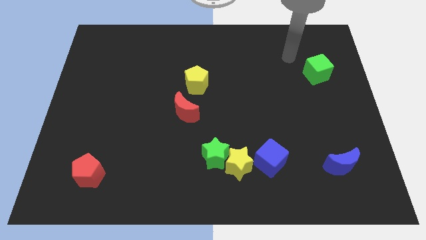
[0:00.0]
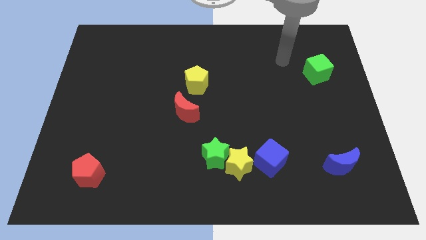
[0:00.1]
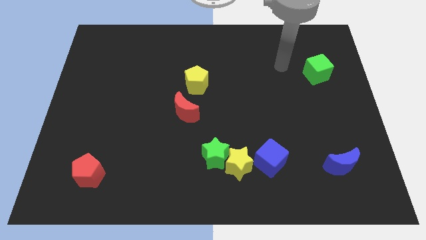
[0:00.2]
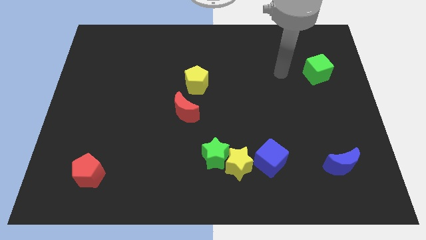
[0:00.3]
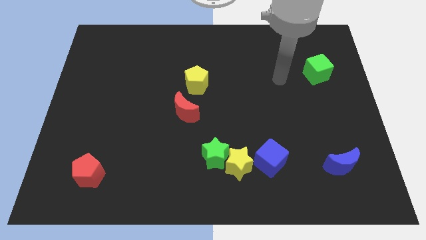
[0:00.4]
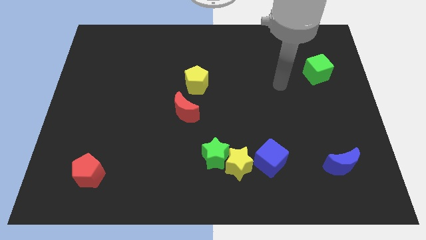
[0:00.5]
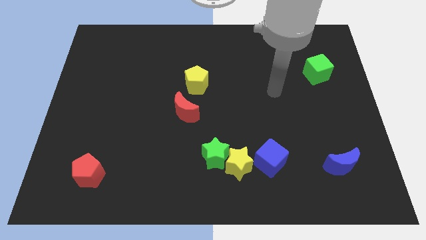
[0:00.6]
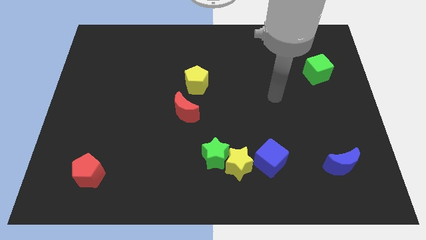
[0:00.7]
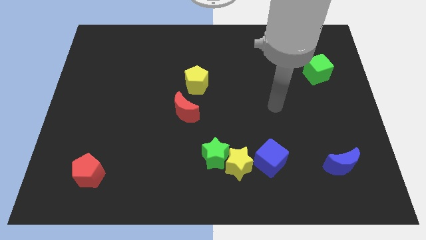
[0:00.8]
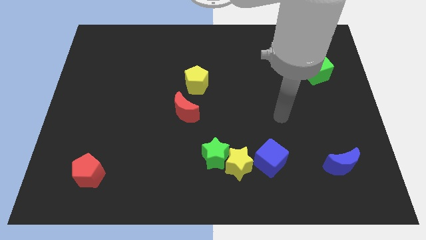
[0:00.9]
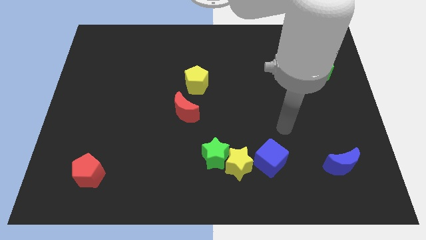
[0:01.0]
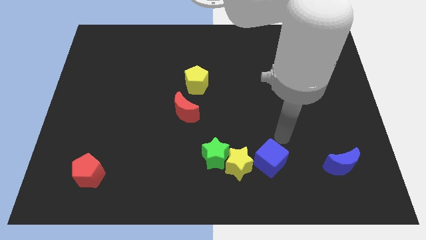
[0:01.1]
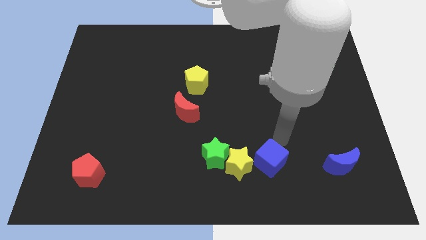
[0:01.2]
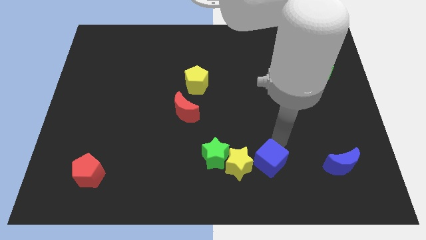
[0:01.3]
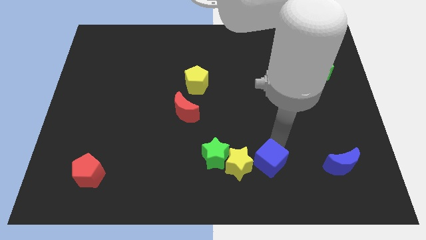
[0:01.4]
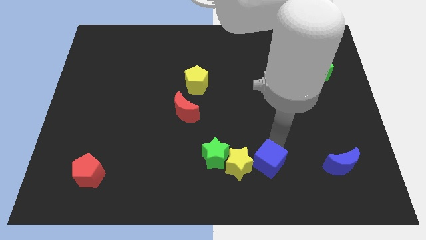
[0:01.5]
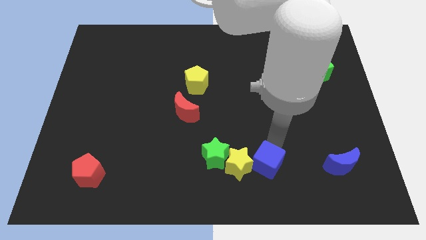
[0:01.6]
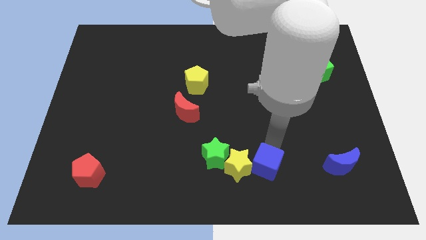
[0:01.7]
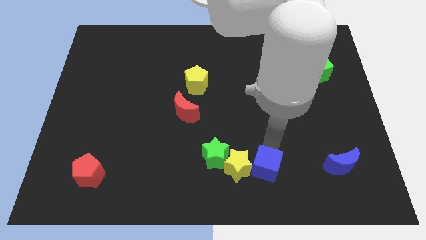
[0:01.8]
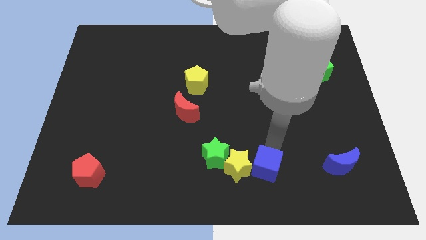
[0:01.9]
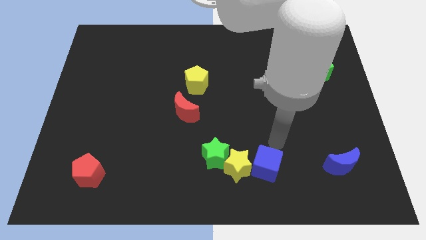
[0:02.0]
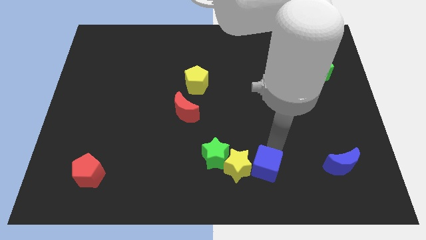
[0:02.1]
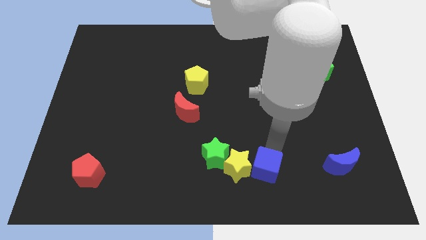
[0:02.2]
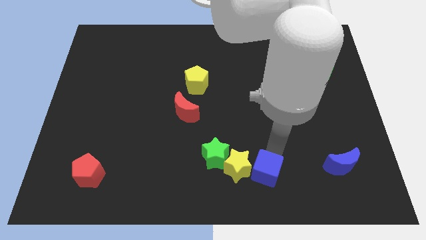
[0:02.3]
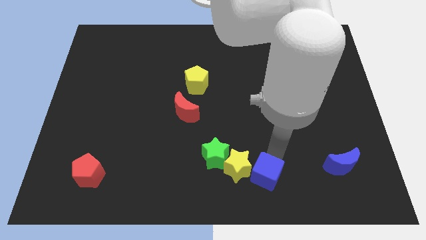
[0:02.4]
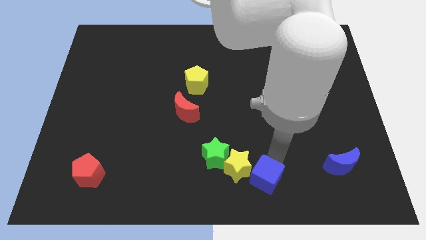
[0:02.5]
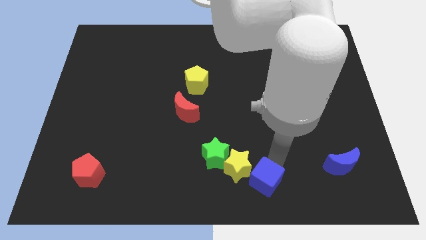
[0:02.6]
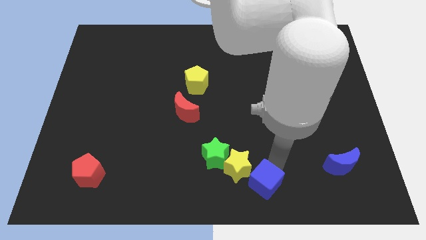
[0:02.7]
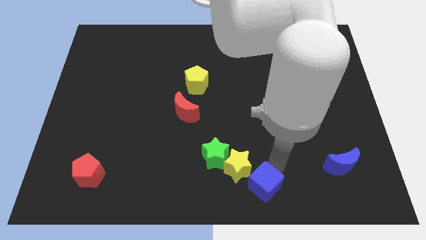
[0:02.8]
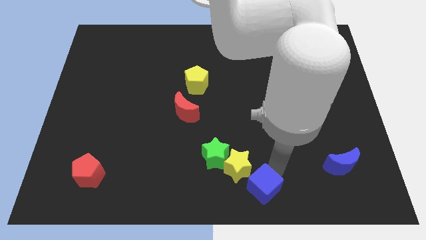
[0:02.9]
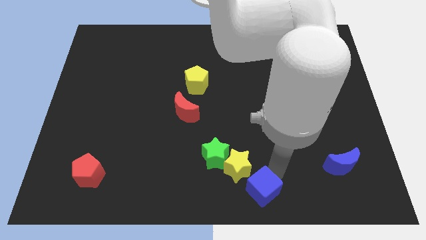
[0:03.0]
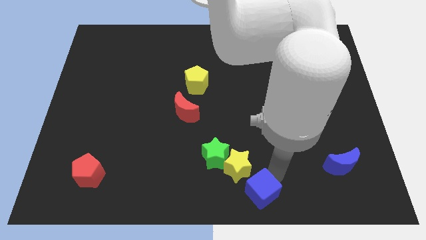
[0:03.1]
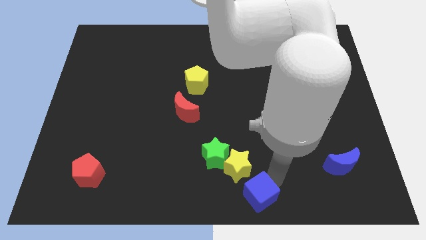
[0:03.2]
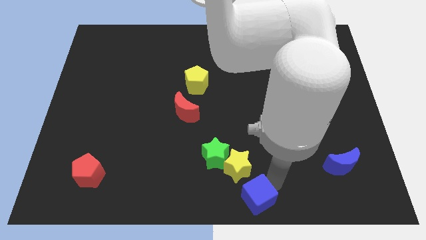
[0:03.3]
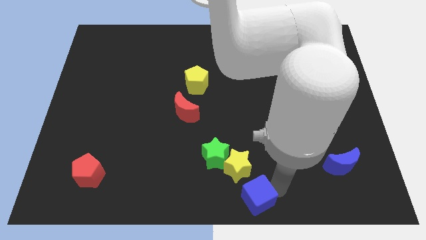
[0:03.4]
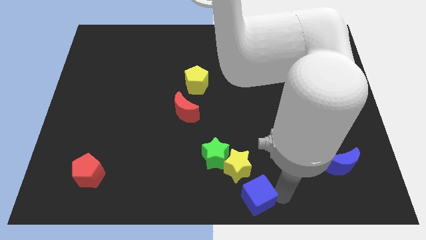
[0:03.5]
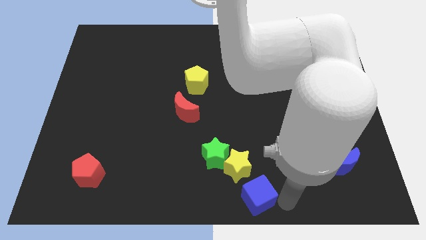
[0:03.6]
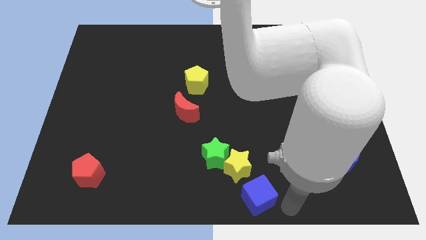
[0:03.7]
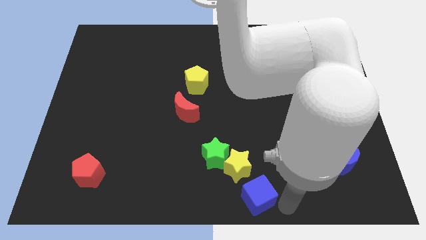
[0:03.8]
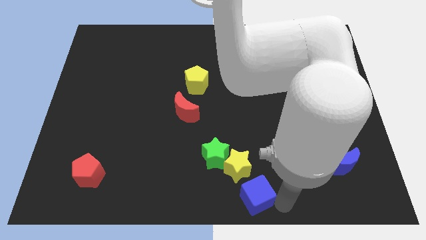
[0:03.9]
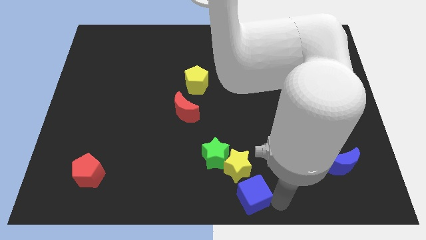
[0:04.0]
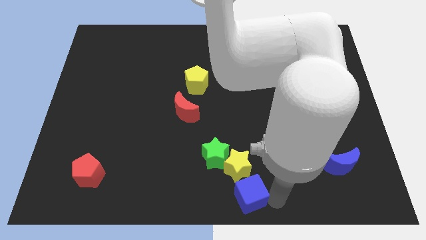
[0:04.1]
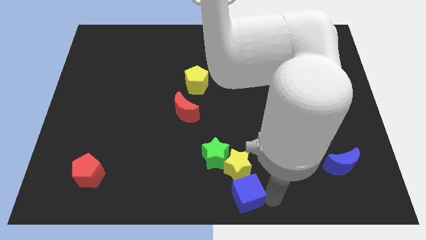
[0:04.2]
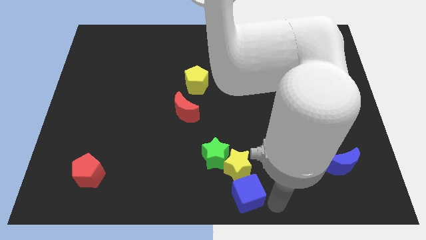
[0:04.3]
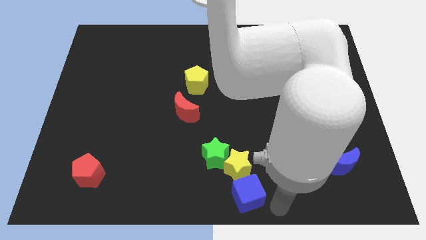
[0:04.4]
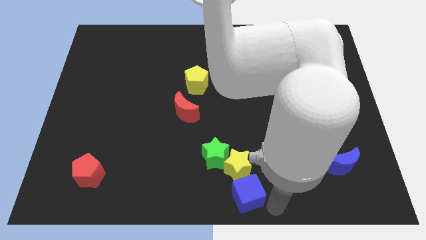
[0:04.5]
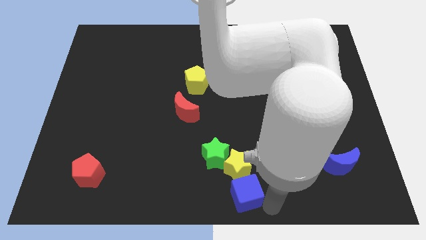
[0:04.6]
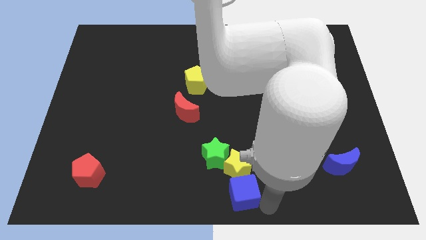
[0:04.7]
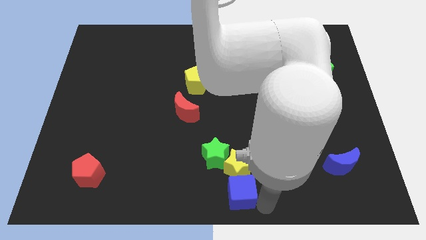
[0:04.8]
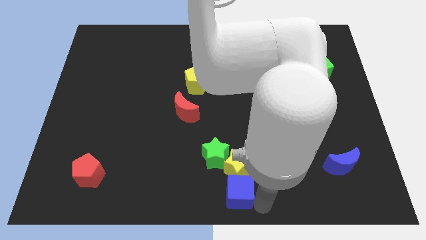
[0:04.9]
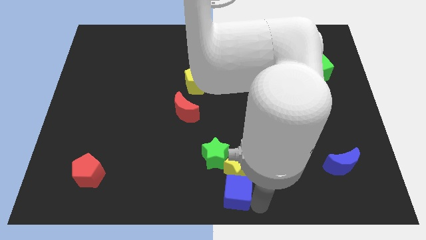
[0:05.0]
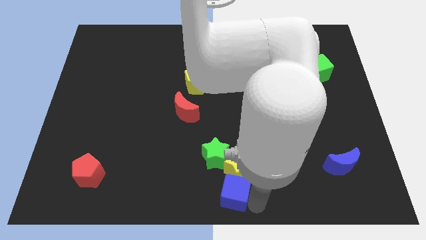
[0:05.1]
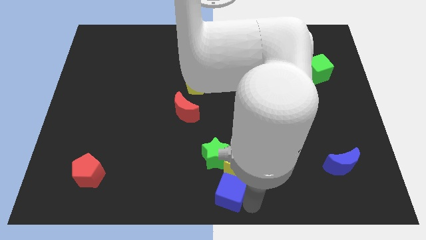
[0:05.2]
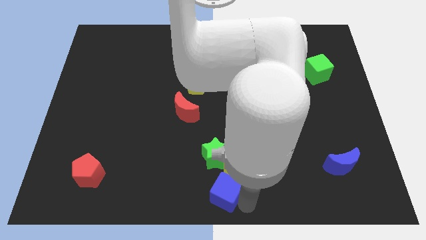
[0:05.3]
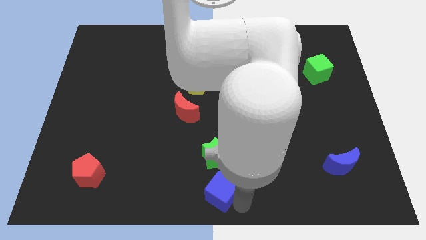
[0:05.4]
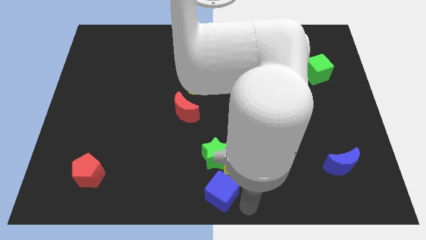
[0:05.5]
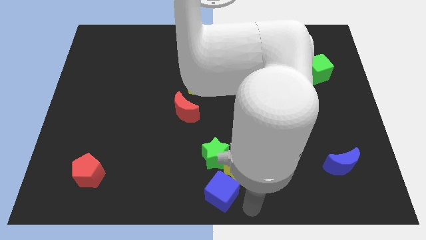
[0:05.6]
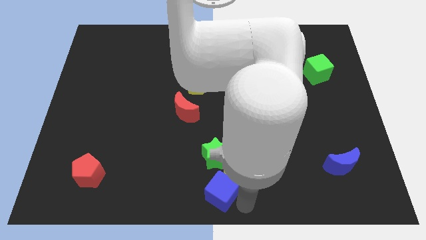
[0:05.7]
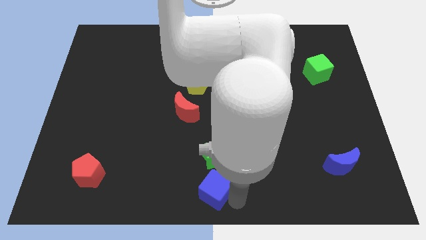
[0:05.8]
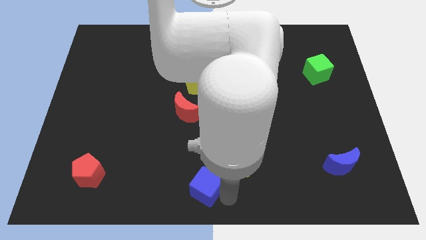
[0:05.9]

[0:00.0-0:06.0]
move the blue cube to the bottom left of the green star

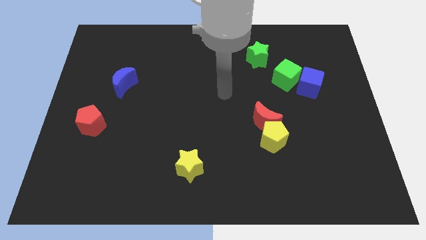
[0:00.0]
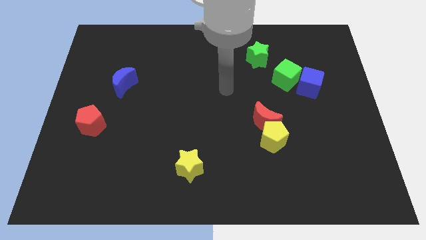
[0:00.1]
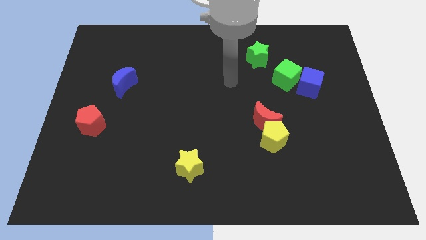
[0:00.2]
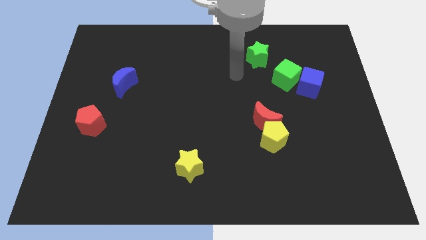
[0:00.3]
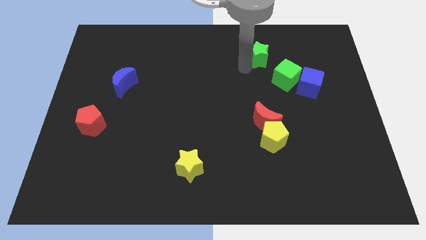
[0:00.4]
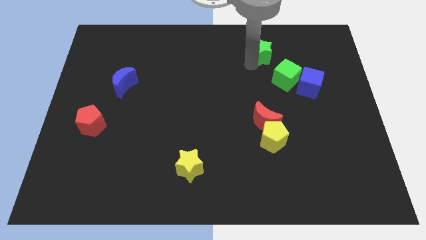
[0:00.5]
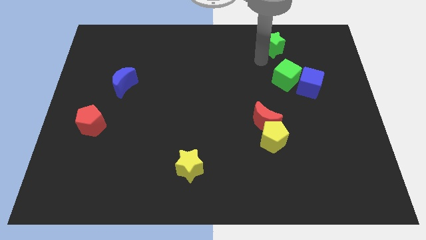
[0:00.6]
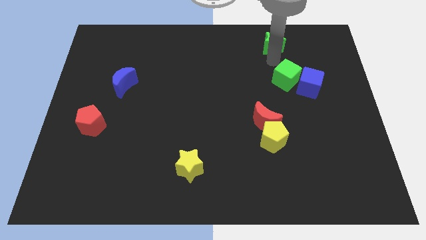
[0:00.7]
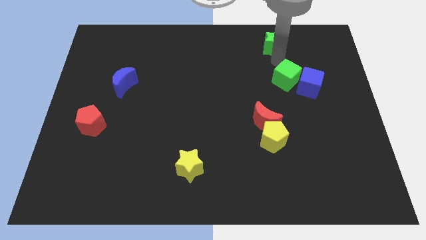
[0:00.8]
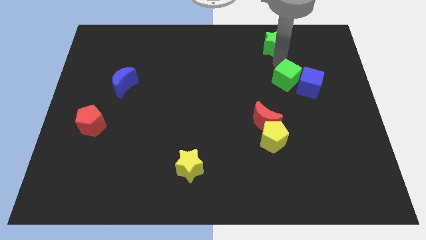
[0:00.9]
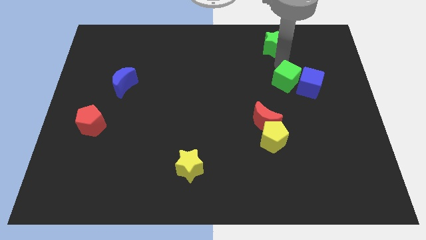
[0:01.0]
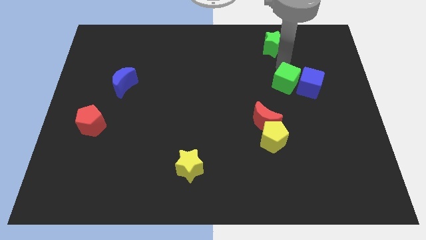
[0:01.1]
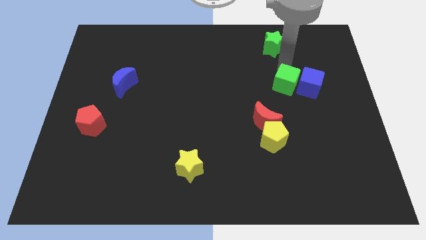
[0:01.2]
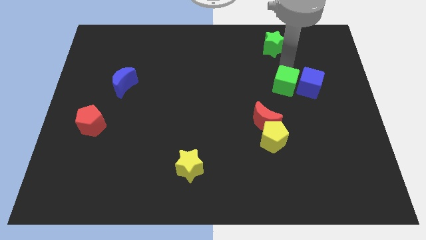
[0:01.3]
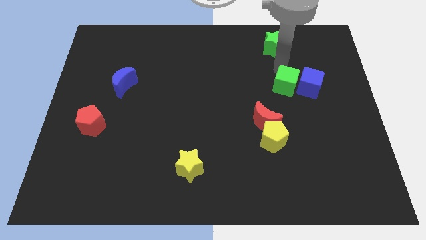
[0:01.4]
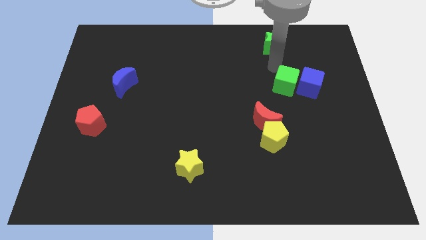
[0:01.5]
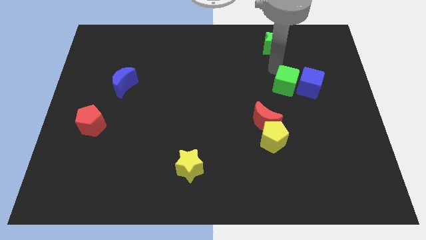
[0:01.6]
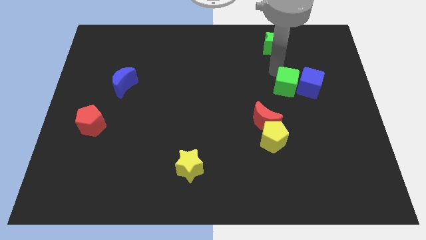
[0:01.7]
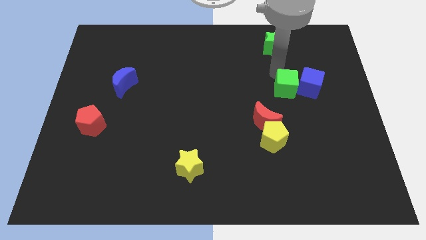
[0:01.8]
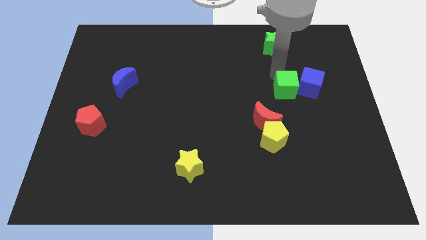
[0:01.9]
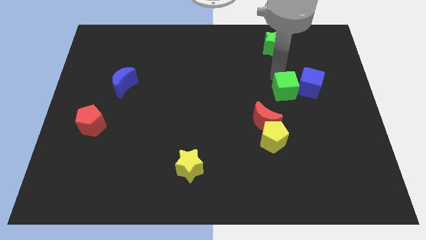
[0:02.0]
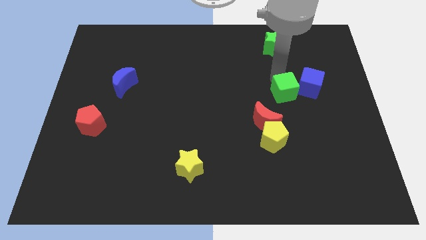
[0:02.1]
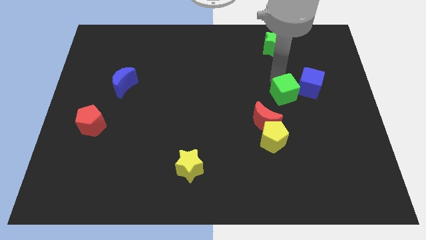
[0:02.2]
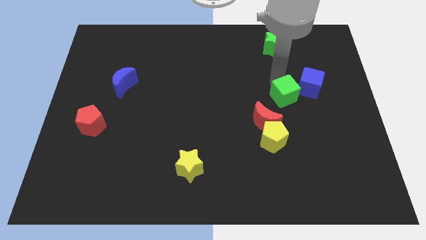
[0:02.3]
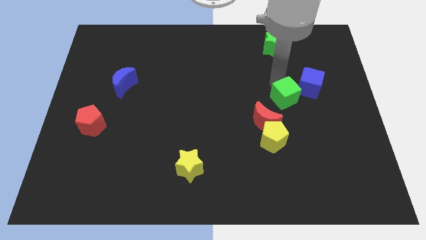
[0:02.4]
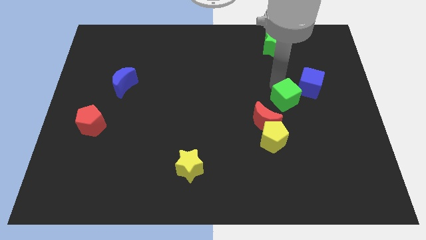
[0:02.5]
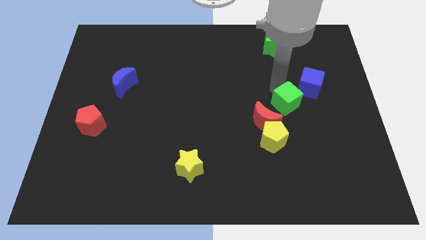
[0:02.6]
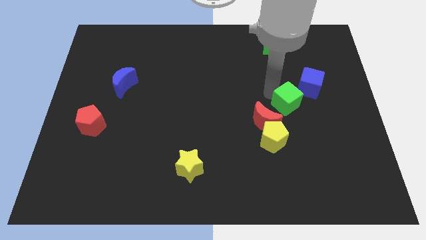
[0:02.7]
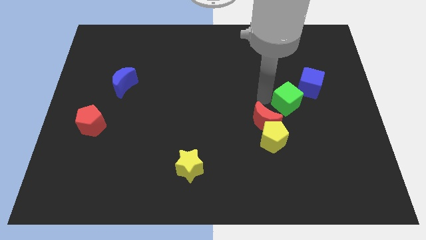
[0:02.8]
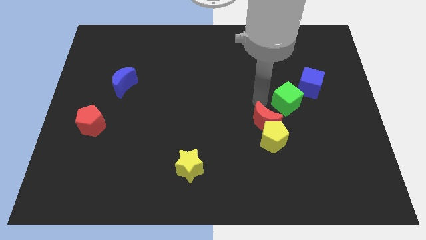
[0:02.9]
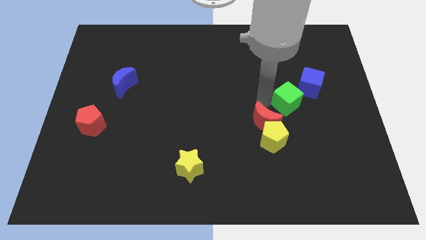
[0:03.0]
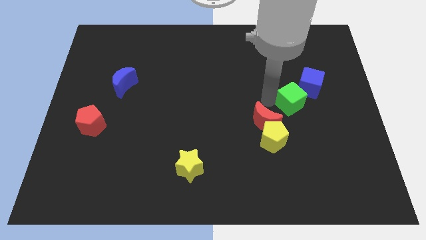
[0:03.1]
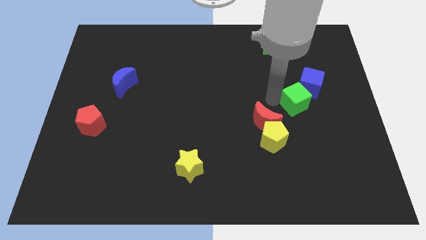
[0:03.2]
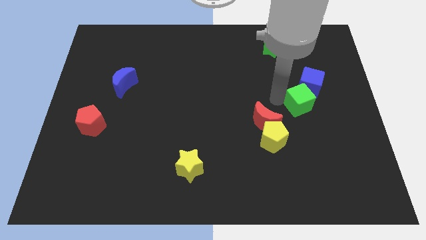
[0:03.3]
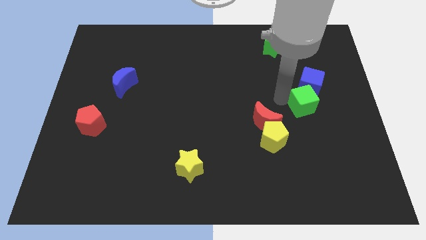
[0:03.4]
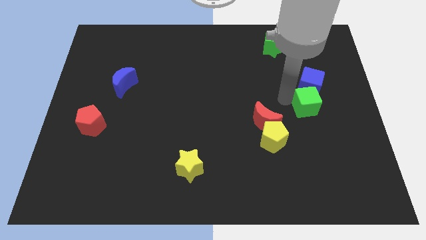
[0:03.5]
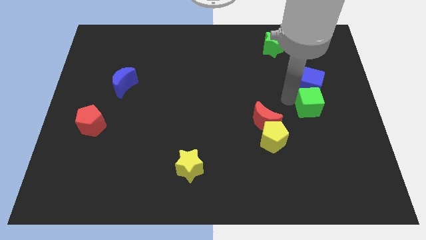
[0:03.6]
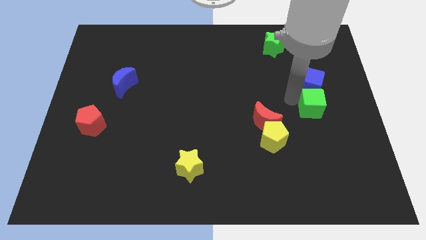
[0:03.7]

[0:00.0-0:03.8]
push the green cube to the bottom right of the blue cube
